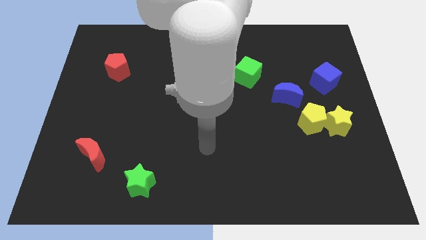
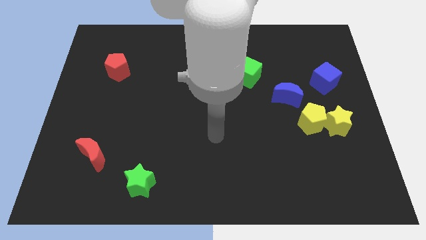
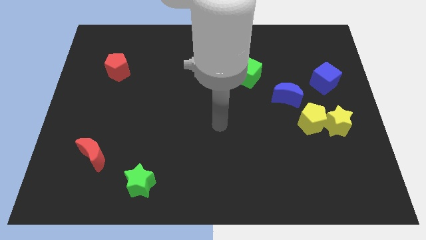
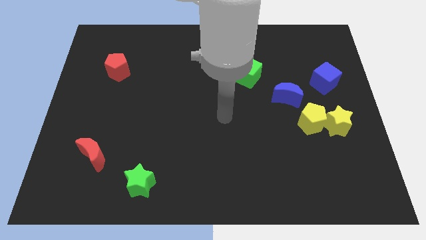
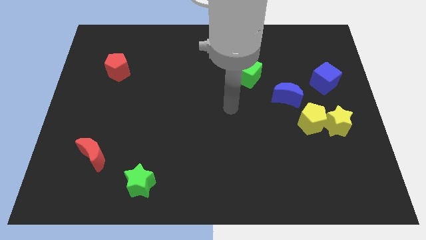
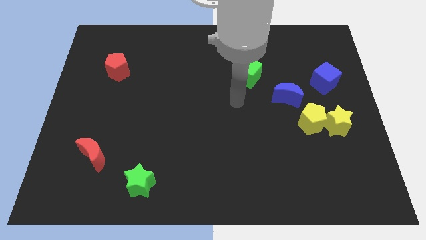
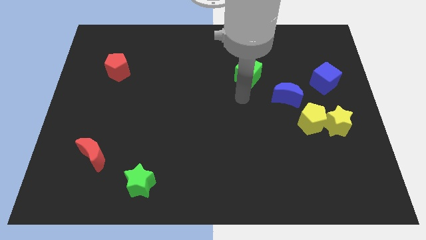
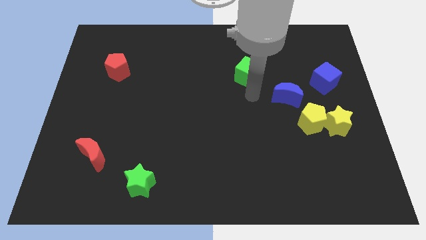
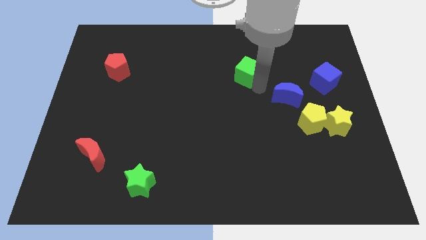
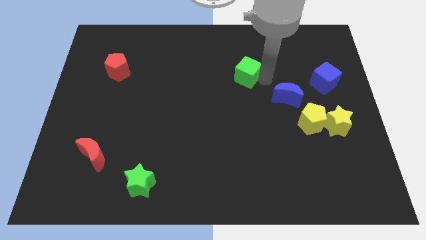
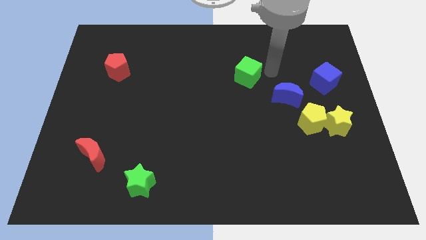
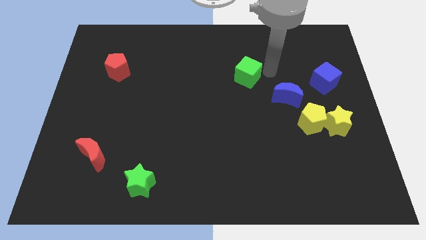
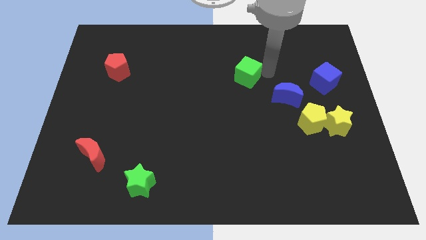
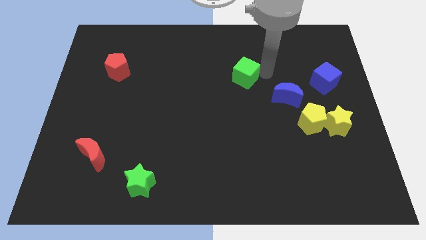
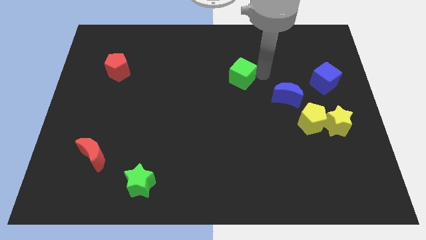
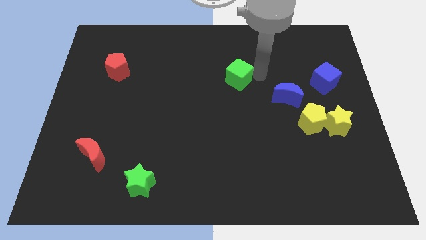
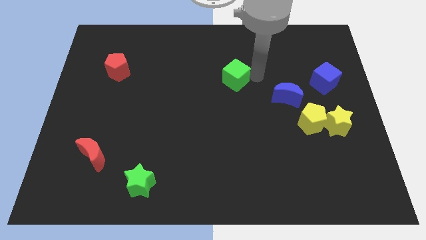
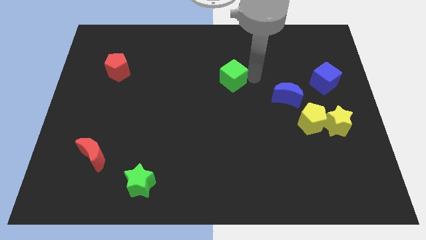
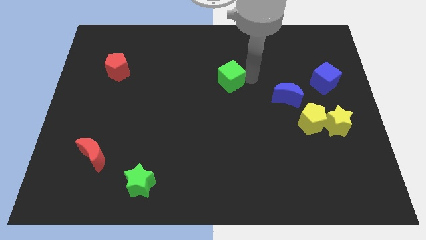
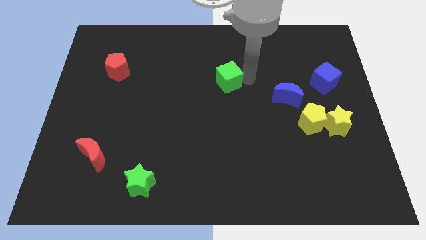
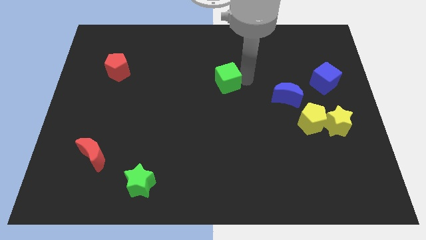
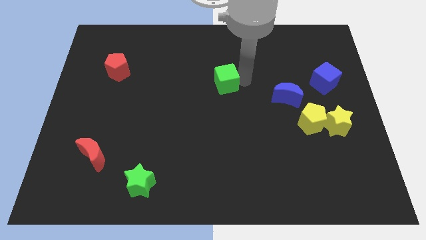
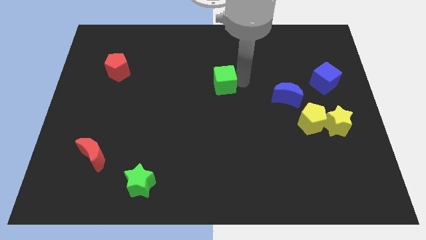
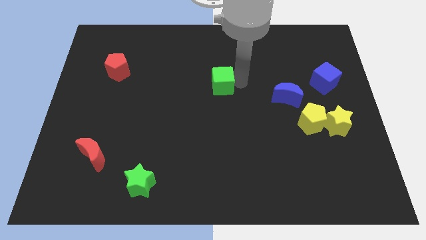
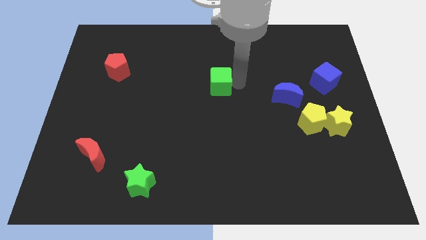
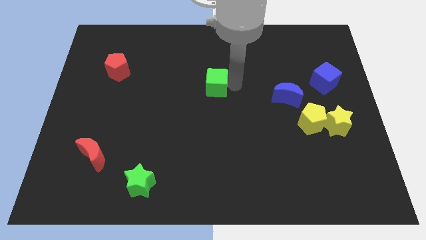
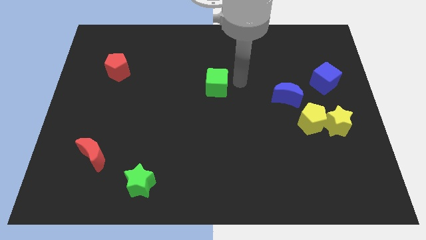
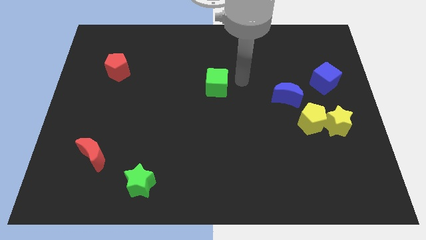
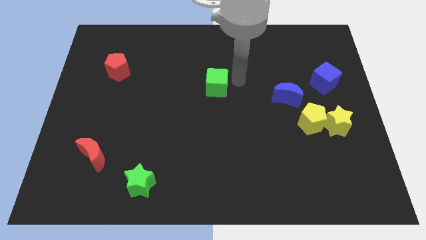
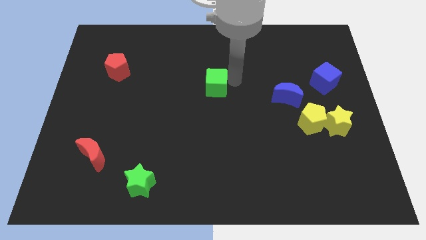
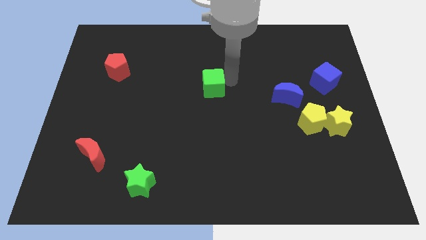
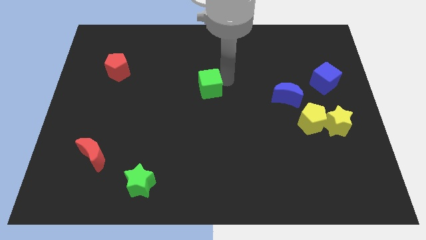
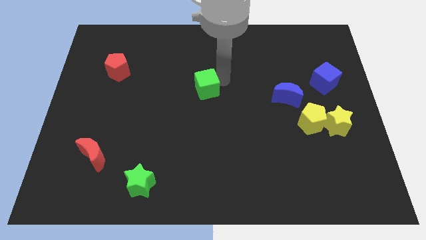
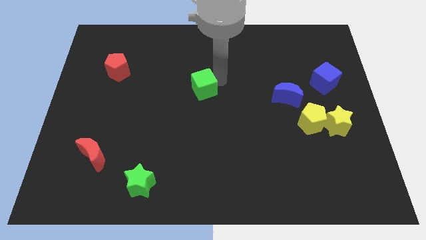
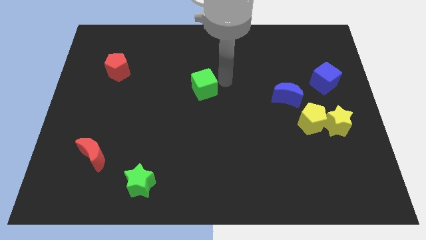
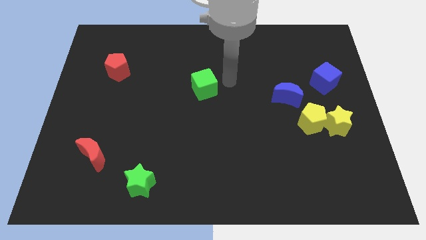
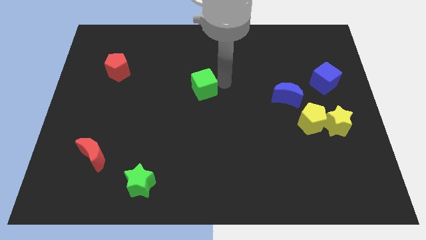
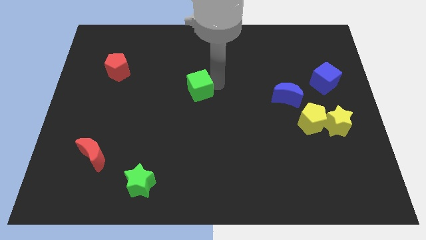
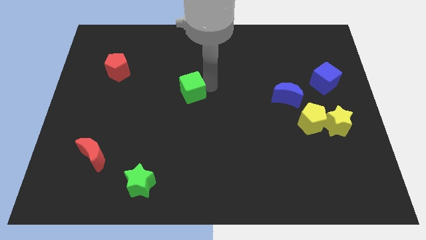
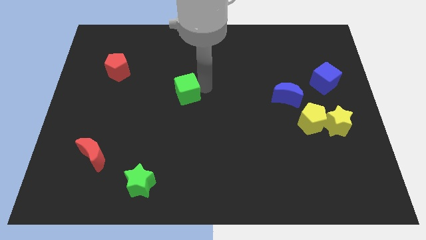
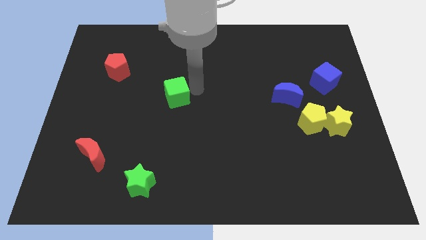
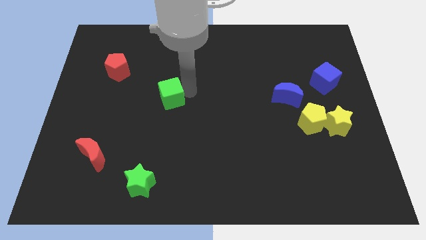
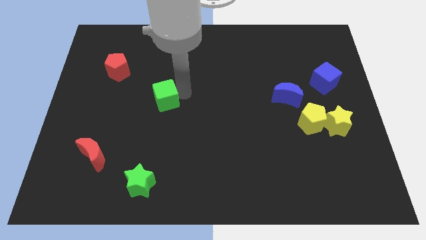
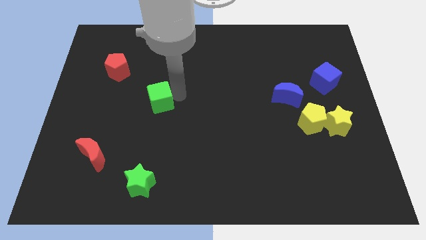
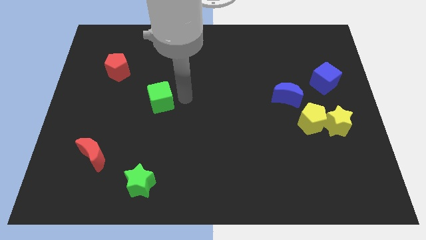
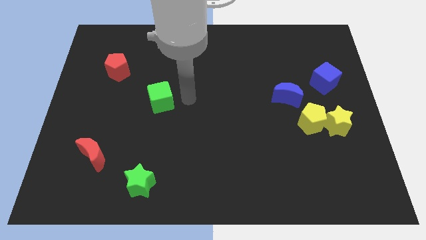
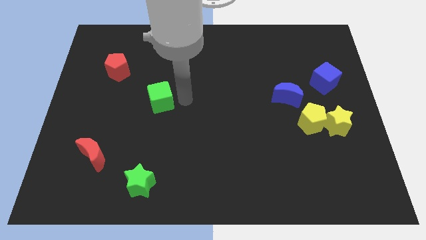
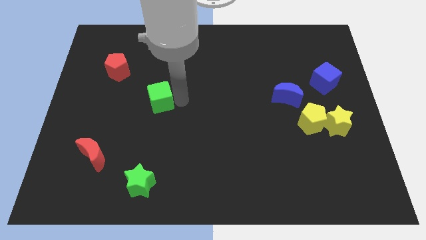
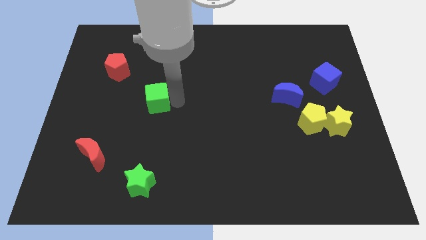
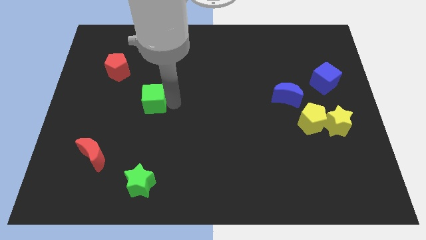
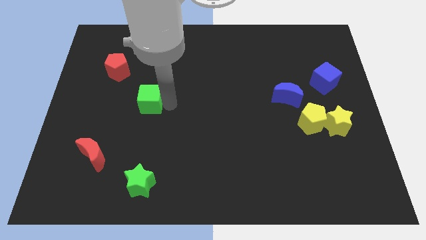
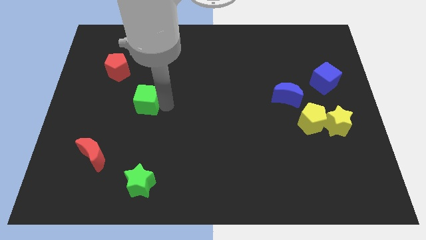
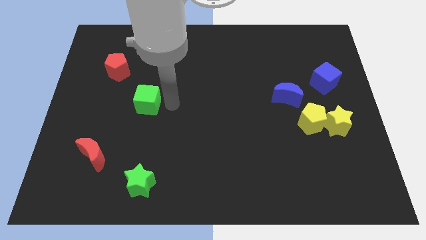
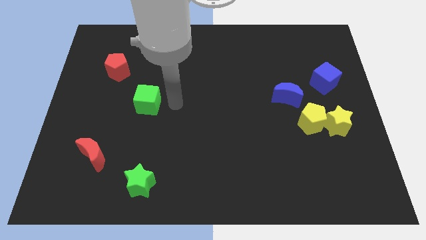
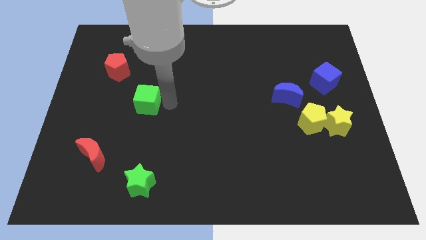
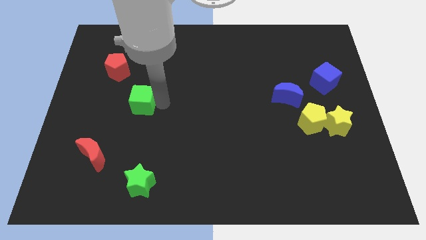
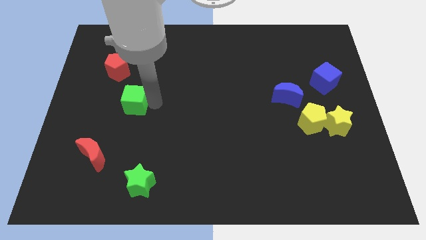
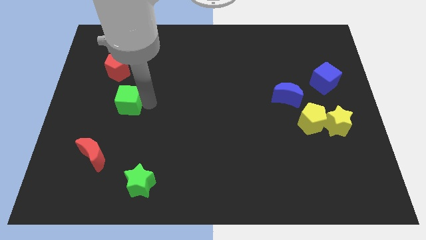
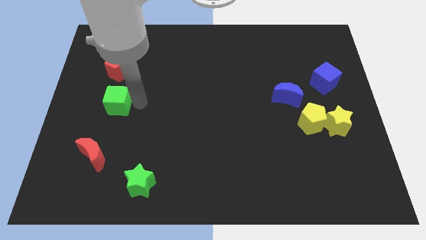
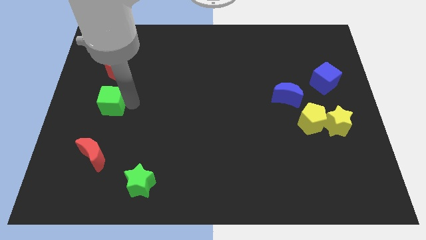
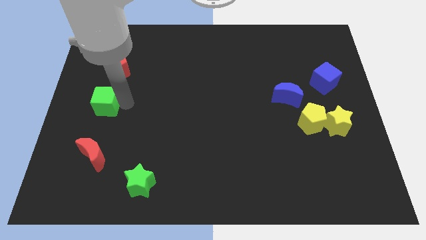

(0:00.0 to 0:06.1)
move the green cube to the left side of the board
